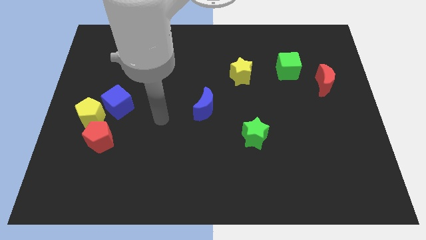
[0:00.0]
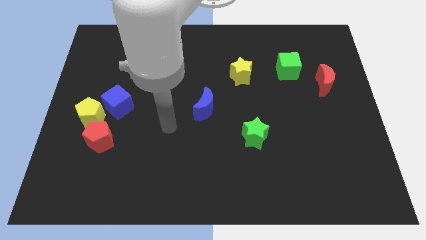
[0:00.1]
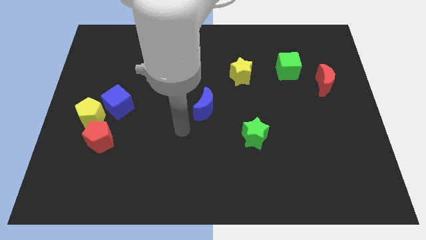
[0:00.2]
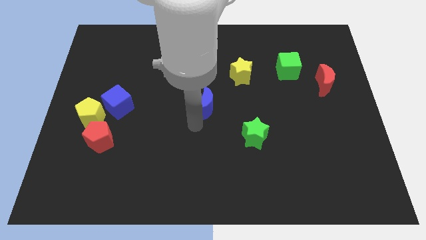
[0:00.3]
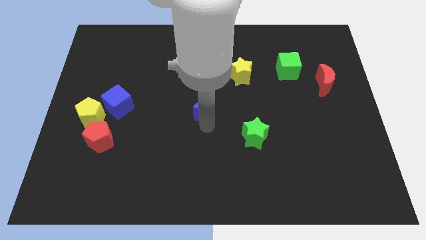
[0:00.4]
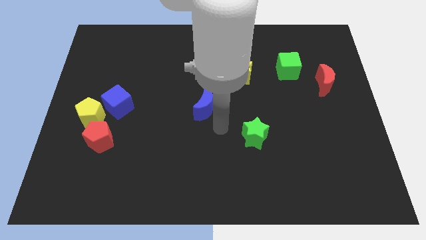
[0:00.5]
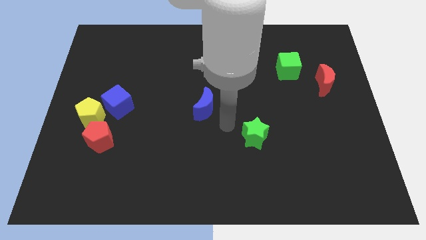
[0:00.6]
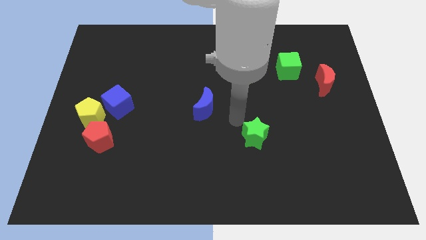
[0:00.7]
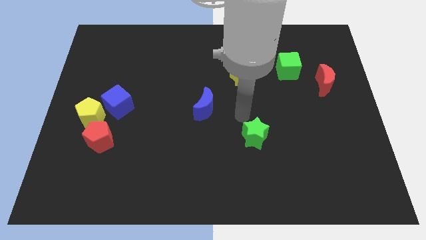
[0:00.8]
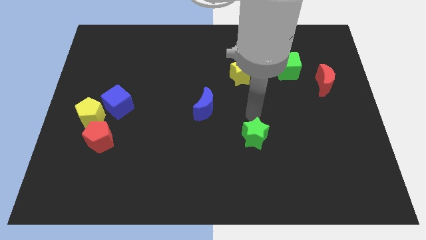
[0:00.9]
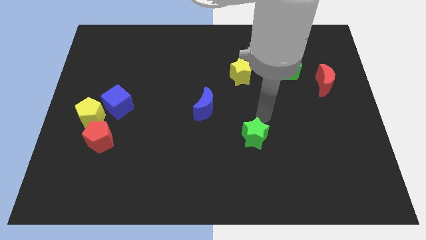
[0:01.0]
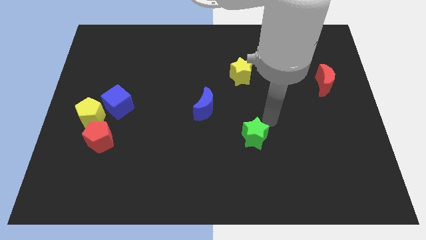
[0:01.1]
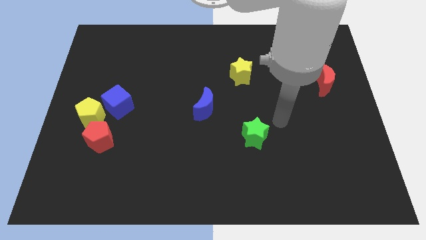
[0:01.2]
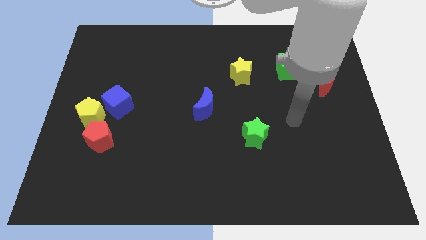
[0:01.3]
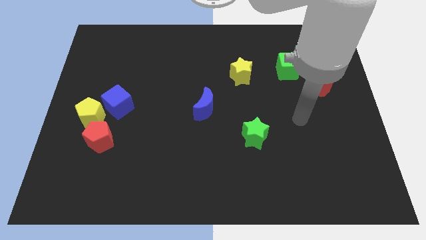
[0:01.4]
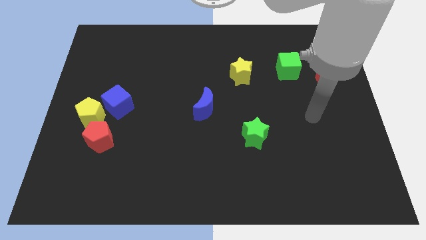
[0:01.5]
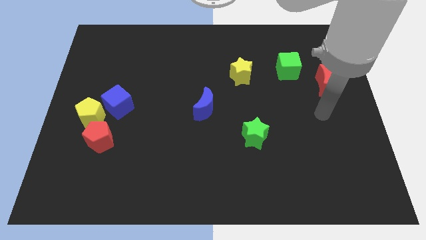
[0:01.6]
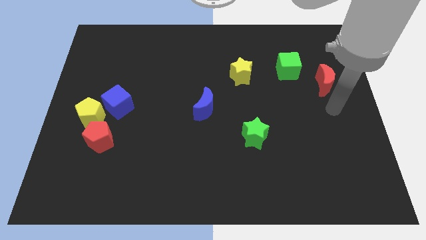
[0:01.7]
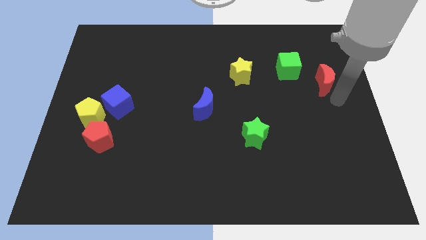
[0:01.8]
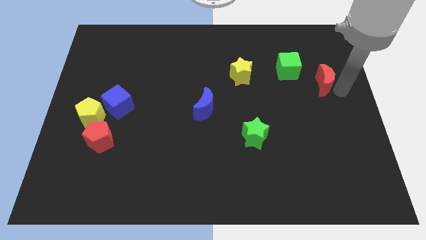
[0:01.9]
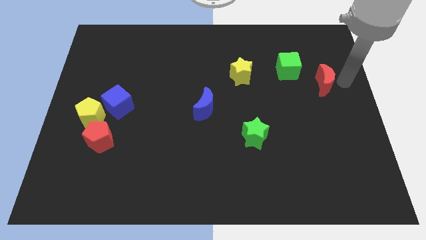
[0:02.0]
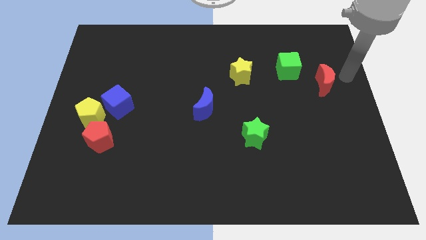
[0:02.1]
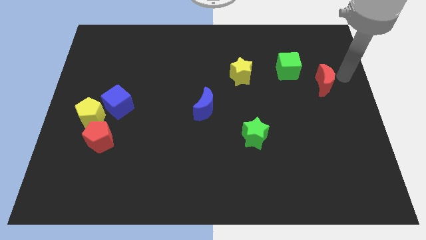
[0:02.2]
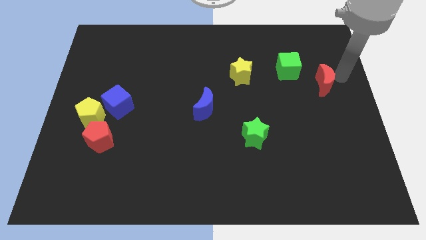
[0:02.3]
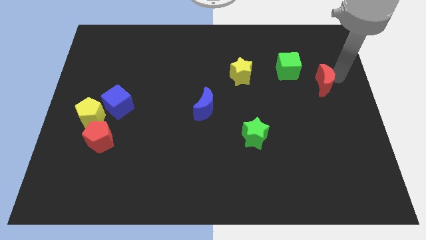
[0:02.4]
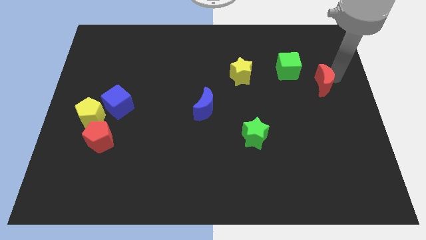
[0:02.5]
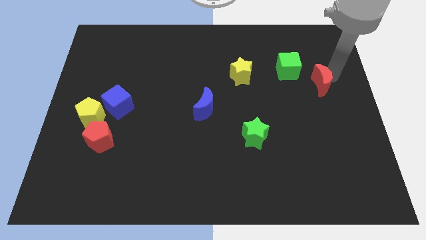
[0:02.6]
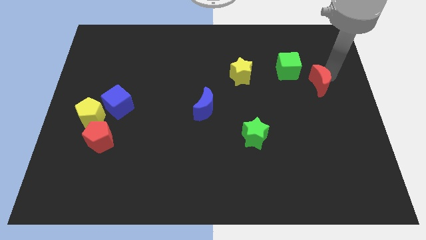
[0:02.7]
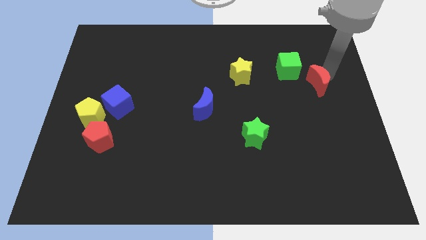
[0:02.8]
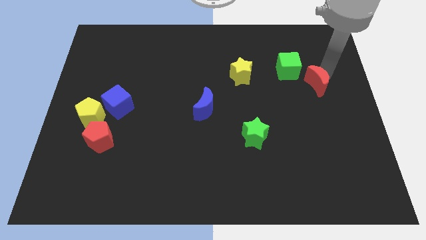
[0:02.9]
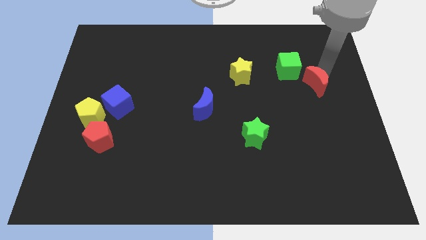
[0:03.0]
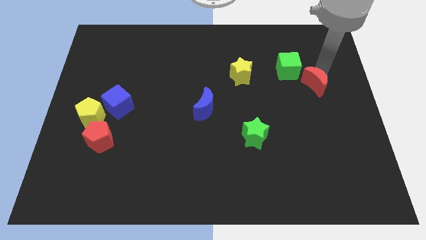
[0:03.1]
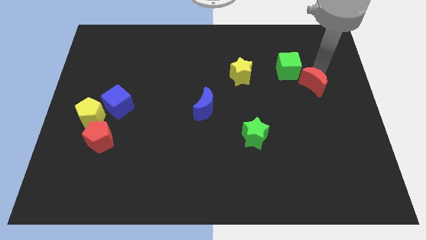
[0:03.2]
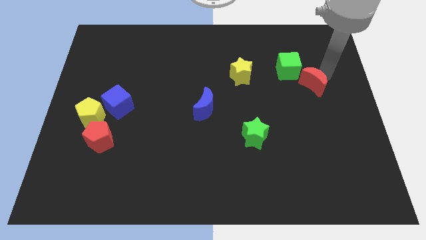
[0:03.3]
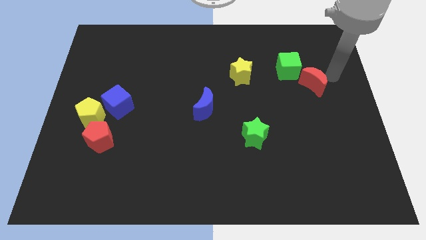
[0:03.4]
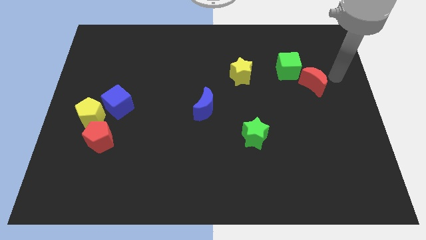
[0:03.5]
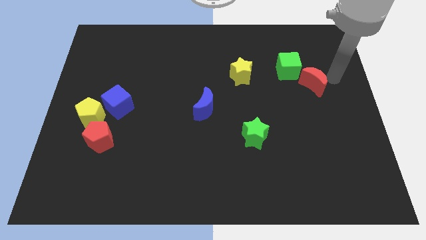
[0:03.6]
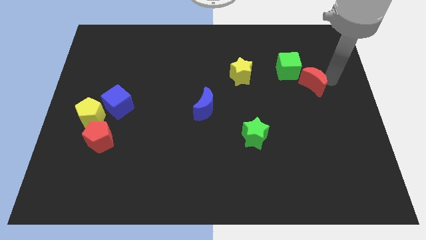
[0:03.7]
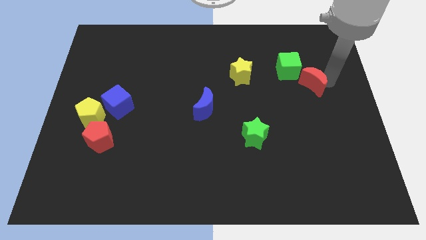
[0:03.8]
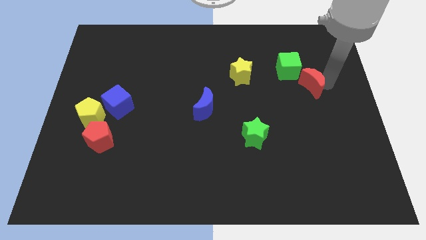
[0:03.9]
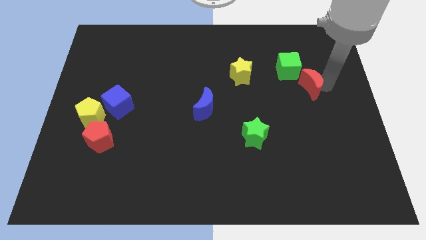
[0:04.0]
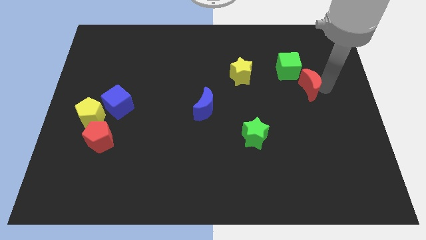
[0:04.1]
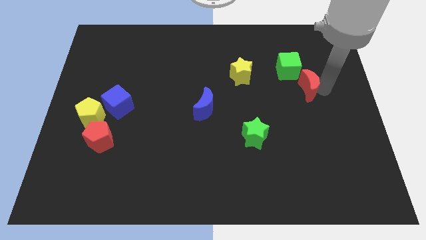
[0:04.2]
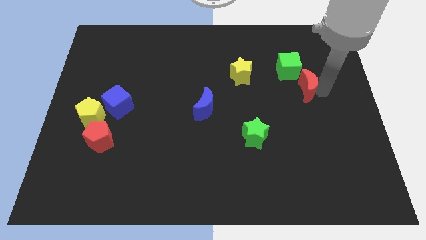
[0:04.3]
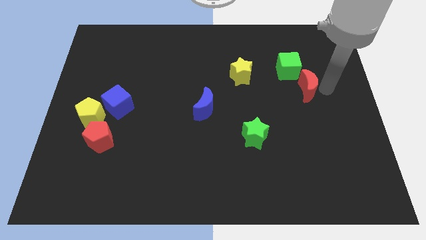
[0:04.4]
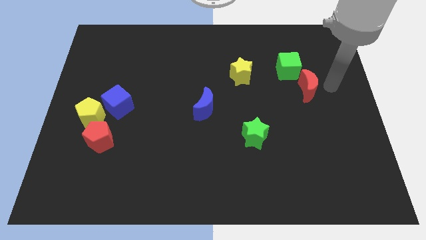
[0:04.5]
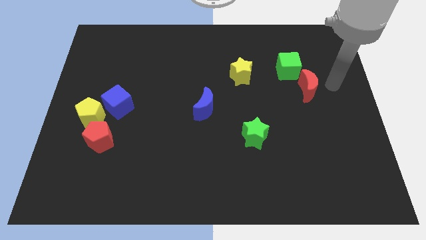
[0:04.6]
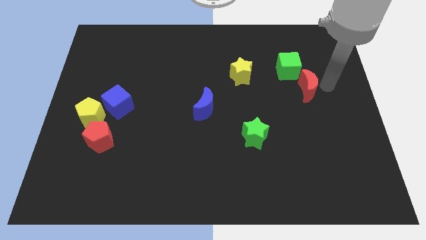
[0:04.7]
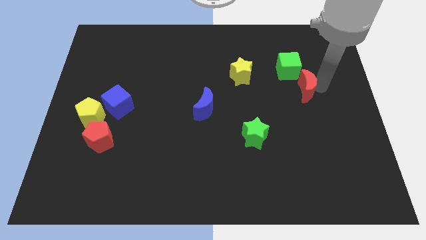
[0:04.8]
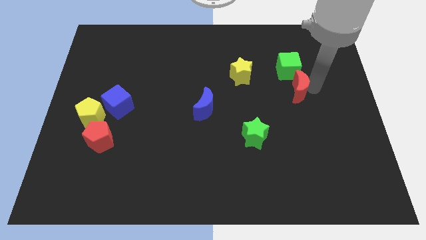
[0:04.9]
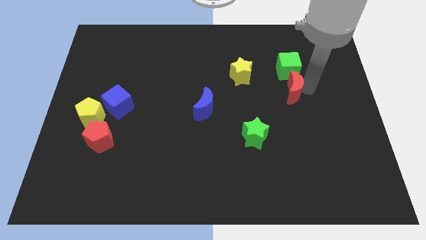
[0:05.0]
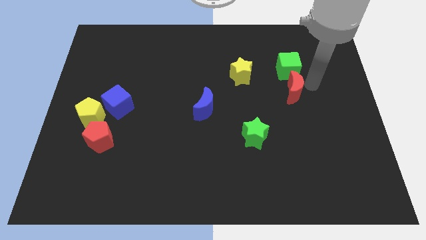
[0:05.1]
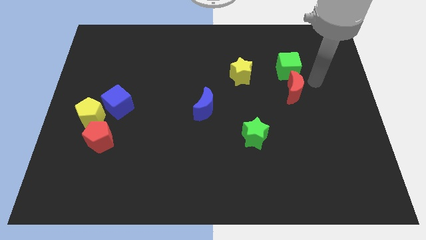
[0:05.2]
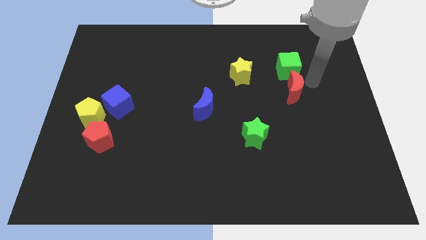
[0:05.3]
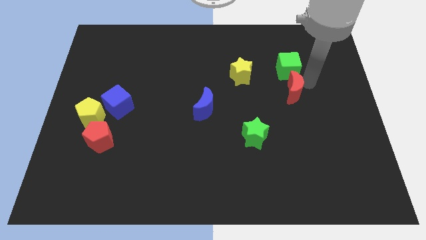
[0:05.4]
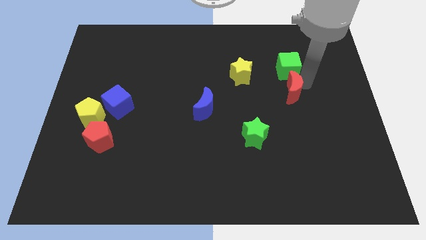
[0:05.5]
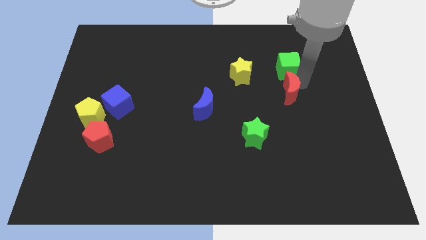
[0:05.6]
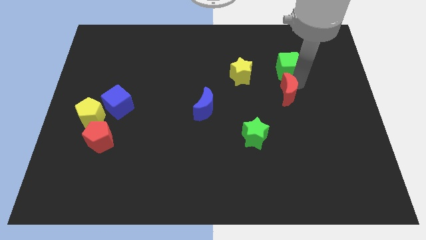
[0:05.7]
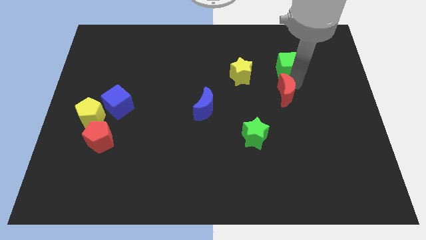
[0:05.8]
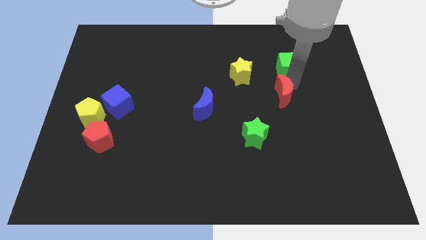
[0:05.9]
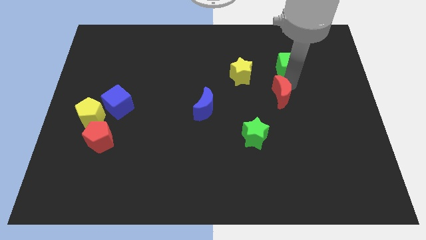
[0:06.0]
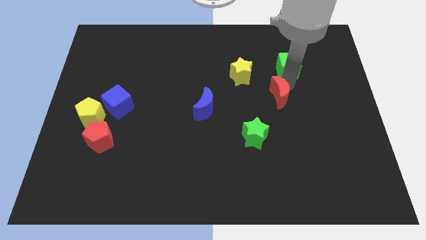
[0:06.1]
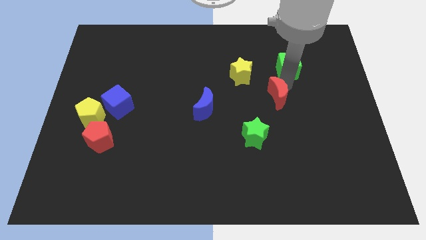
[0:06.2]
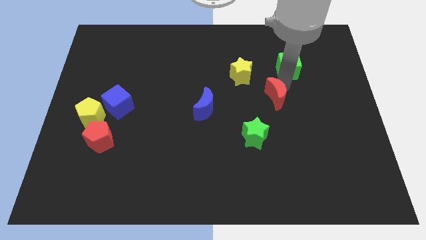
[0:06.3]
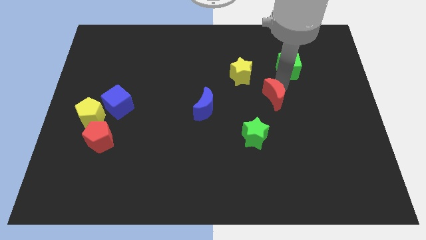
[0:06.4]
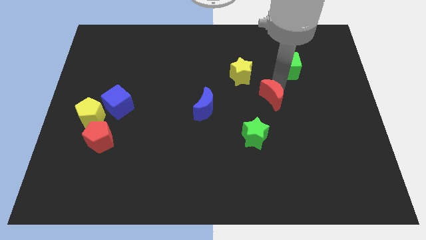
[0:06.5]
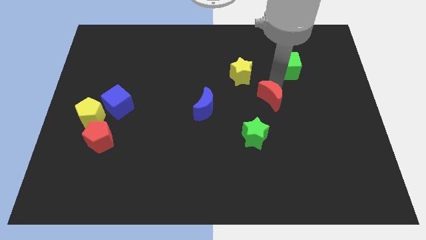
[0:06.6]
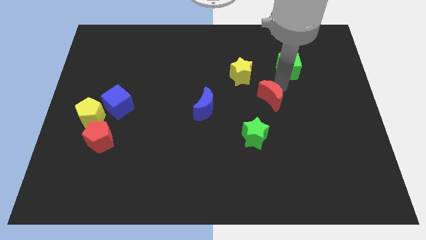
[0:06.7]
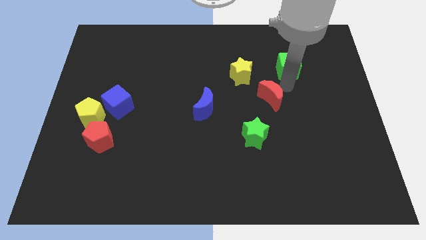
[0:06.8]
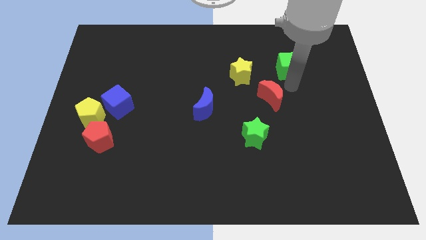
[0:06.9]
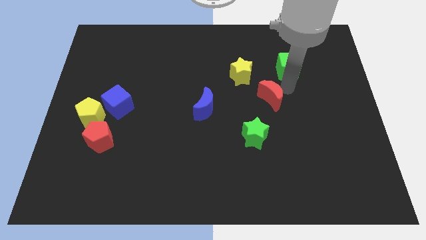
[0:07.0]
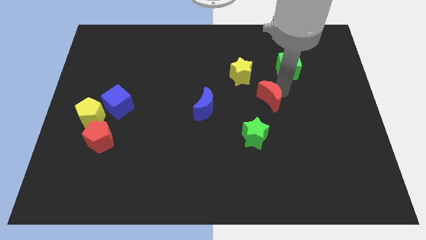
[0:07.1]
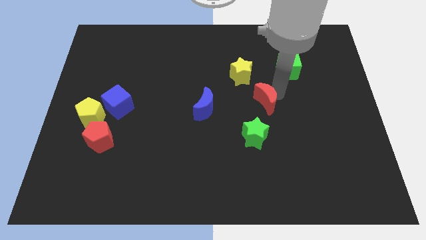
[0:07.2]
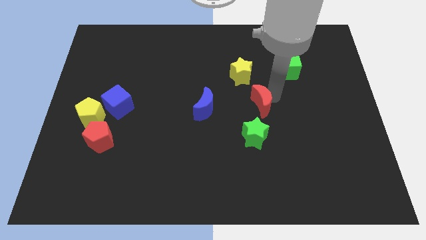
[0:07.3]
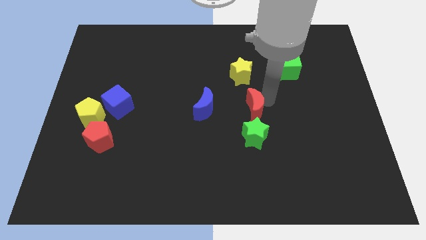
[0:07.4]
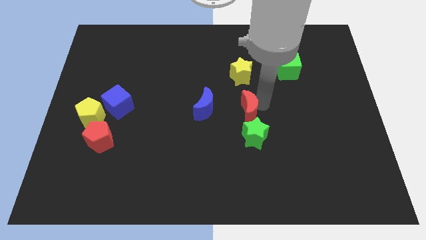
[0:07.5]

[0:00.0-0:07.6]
move the red moon to the top left of the green star
